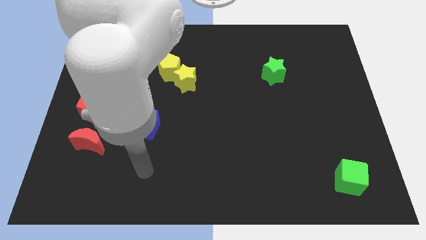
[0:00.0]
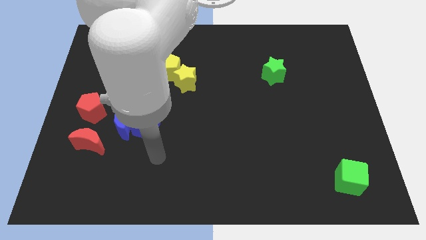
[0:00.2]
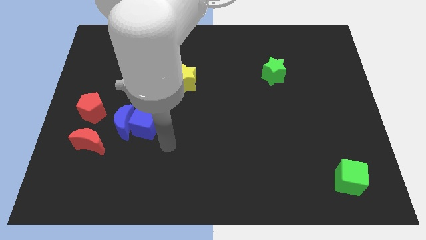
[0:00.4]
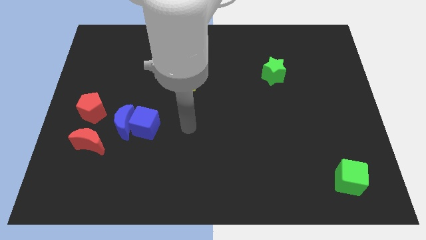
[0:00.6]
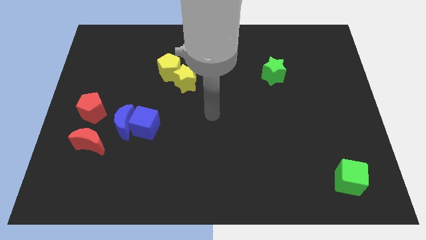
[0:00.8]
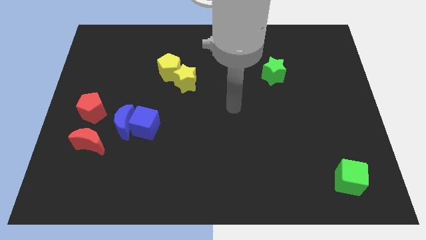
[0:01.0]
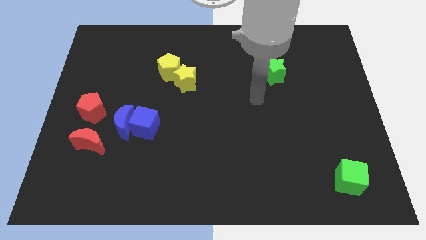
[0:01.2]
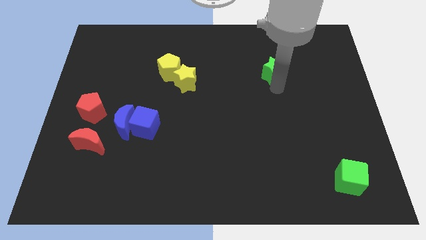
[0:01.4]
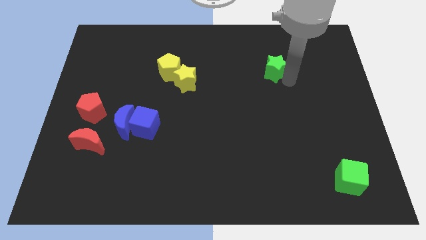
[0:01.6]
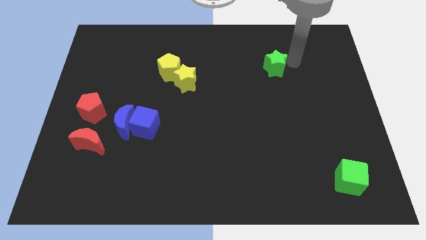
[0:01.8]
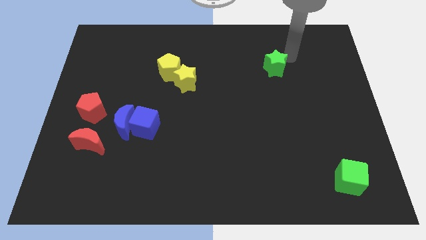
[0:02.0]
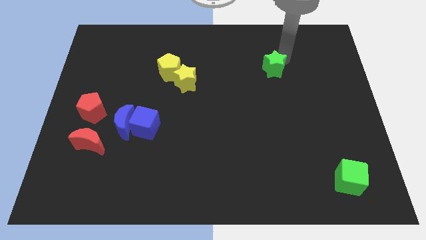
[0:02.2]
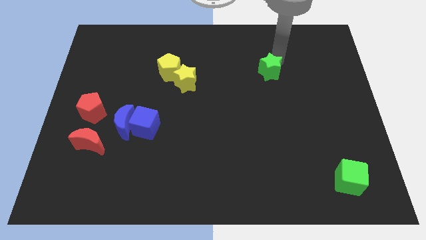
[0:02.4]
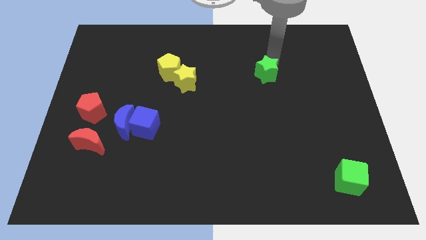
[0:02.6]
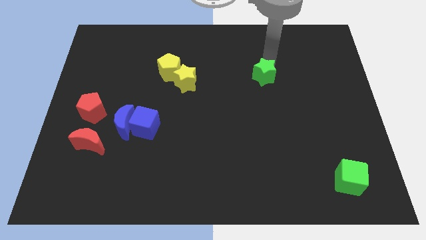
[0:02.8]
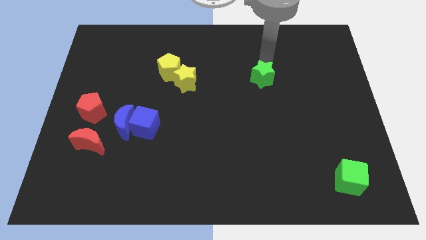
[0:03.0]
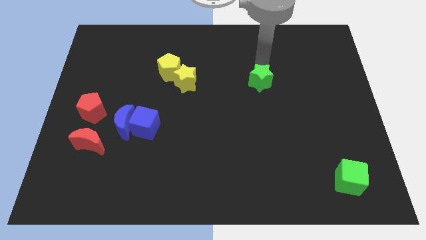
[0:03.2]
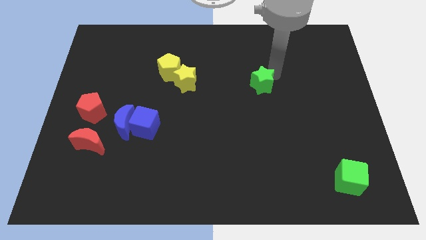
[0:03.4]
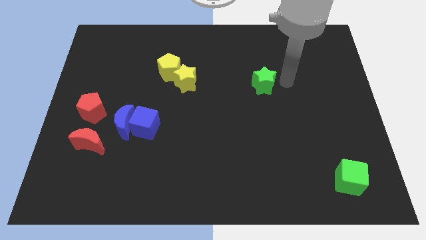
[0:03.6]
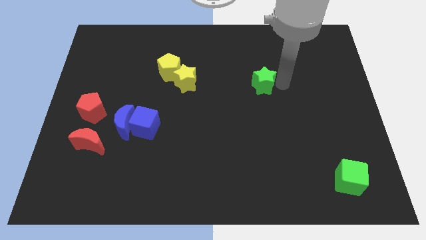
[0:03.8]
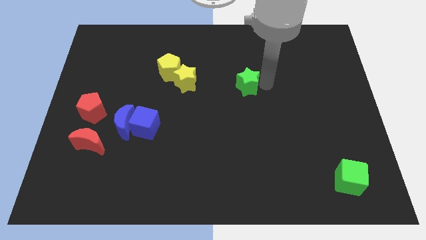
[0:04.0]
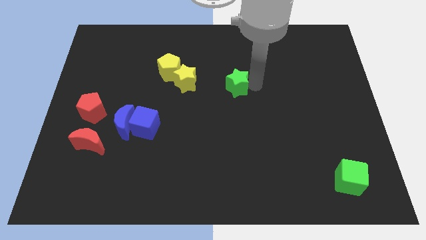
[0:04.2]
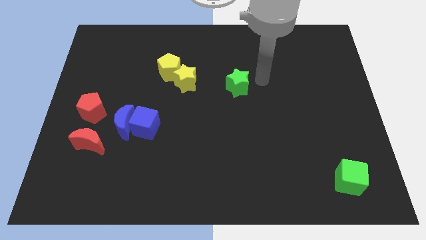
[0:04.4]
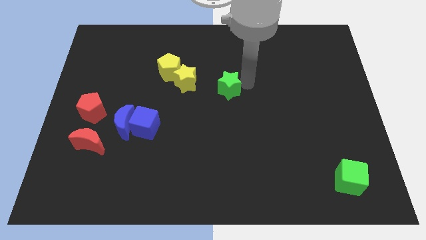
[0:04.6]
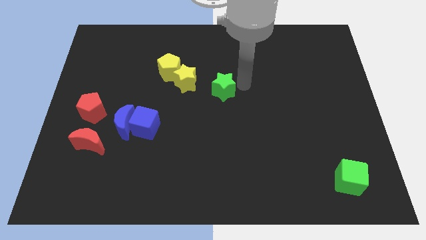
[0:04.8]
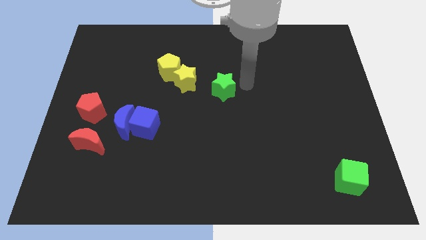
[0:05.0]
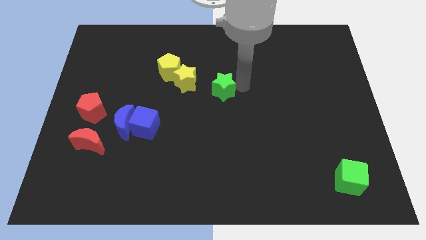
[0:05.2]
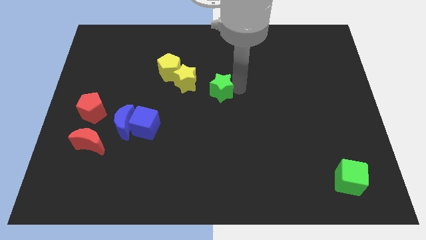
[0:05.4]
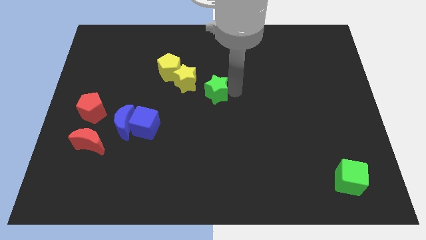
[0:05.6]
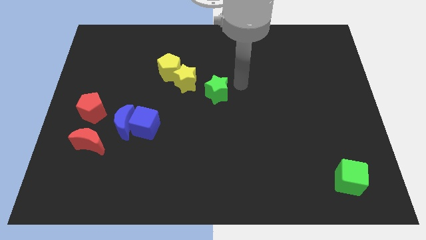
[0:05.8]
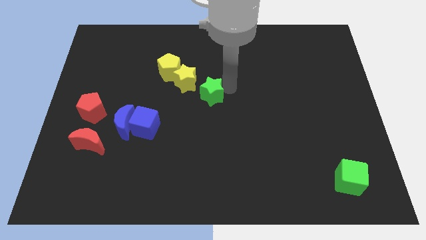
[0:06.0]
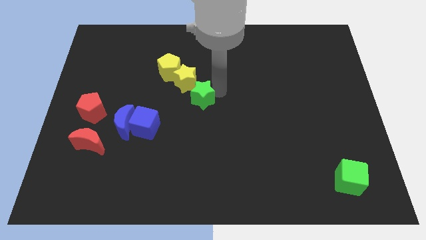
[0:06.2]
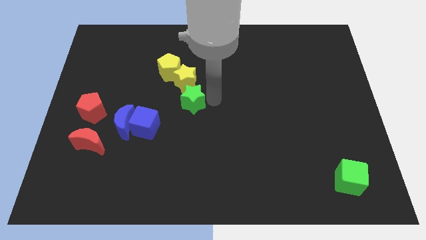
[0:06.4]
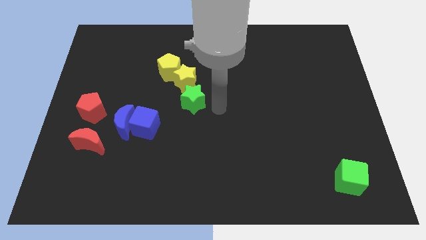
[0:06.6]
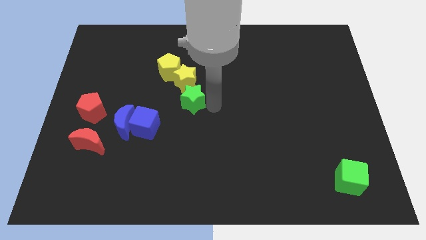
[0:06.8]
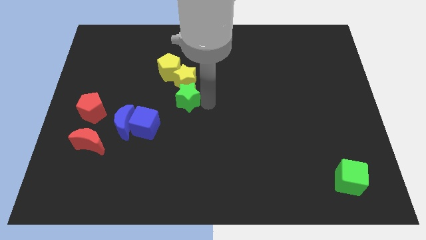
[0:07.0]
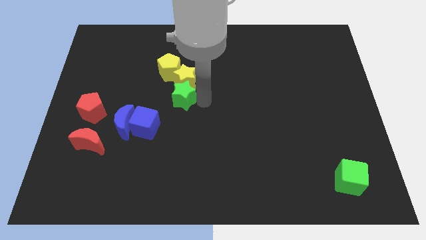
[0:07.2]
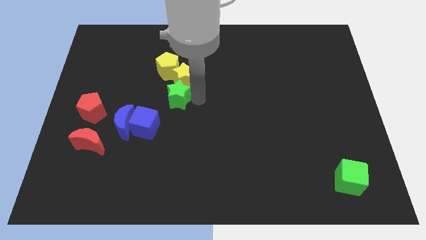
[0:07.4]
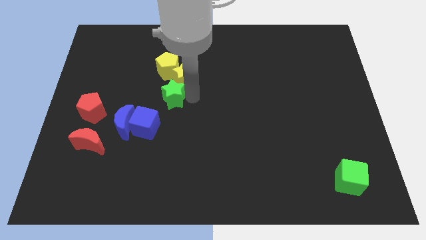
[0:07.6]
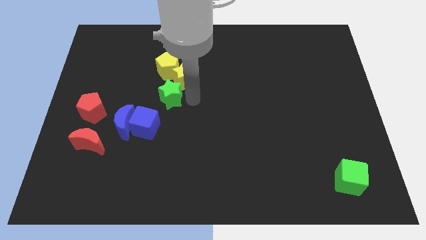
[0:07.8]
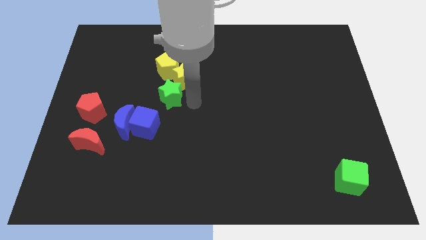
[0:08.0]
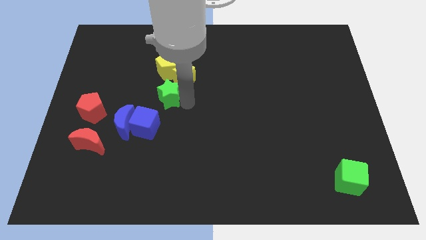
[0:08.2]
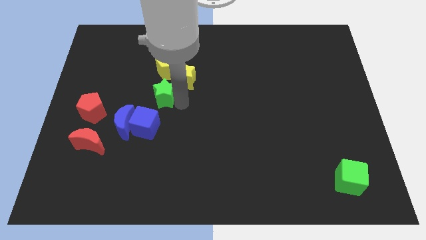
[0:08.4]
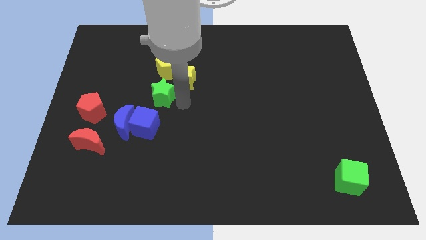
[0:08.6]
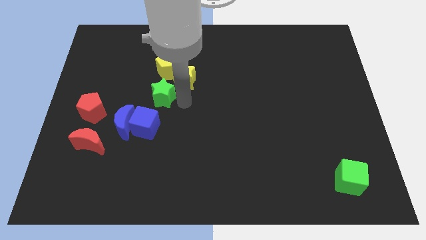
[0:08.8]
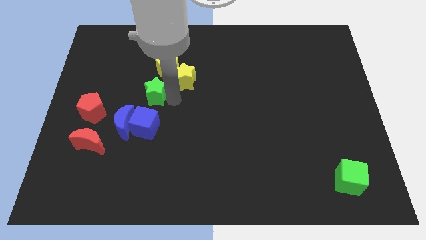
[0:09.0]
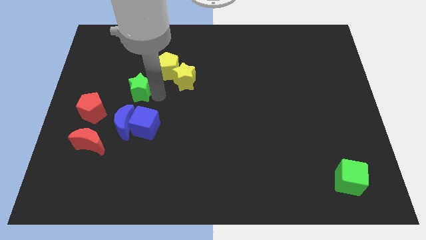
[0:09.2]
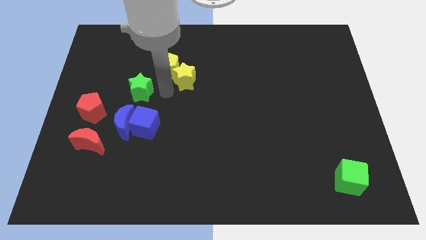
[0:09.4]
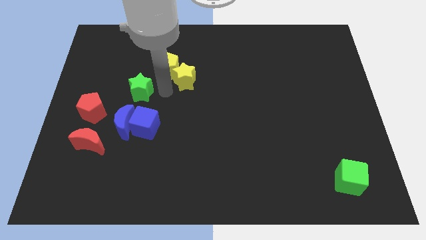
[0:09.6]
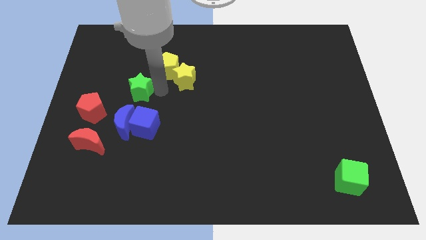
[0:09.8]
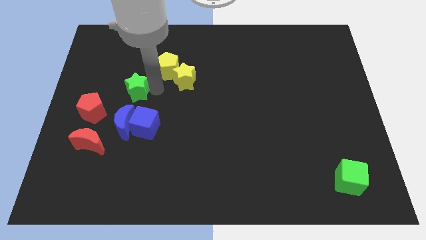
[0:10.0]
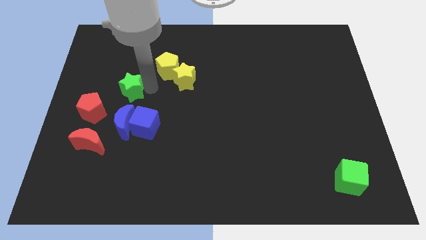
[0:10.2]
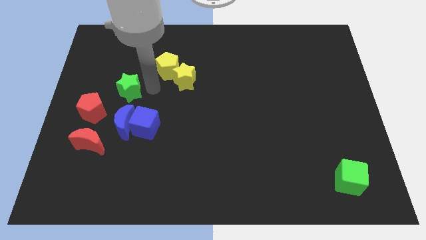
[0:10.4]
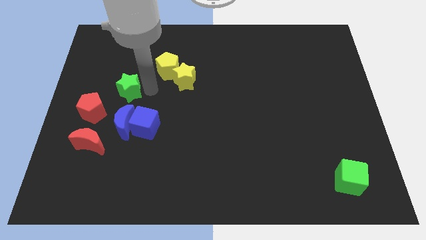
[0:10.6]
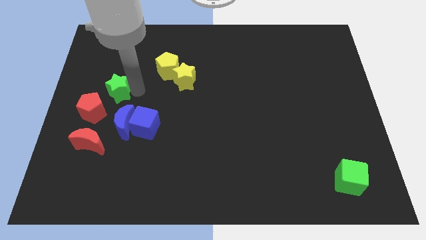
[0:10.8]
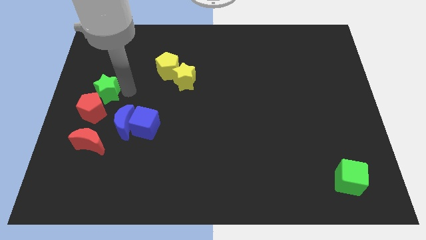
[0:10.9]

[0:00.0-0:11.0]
put the green star to the left side
